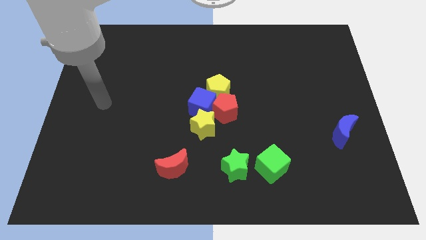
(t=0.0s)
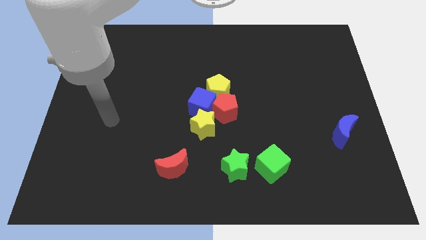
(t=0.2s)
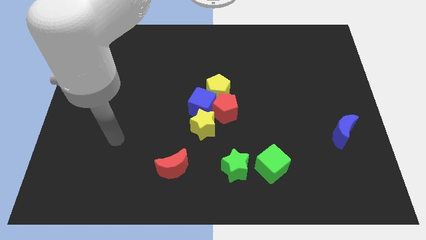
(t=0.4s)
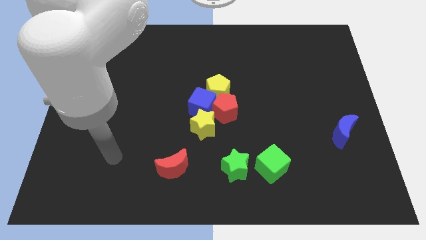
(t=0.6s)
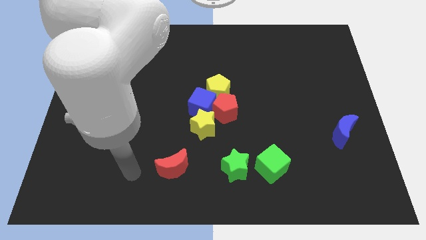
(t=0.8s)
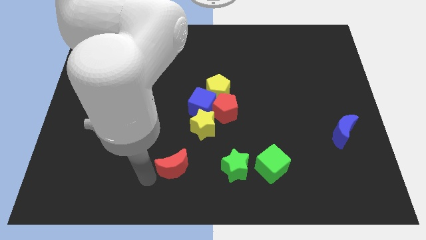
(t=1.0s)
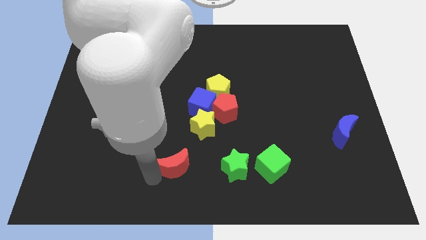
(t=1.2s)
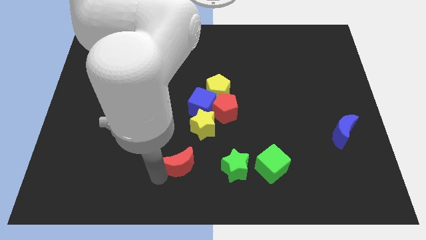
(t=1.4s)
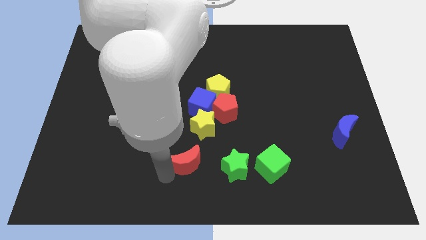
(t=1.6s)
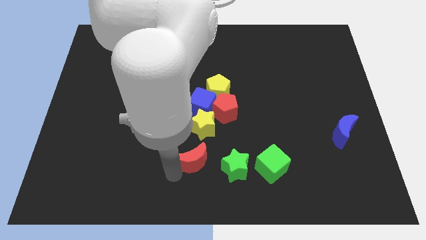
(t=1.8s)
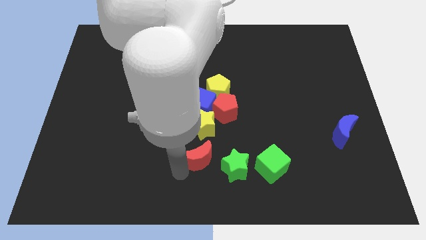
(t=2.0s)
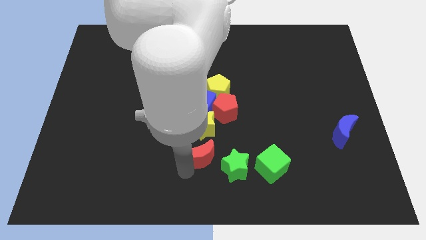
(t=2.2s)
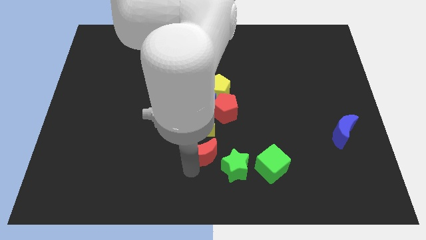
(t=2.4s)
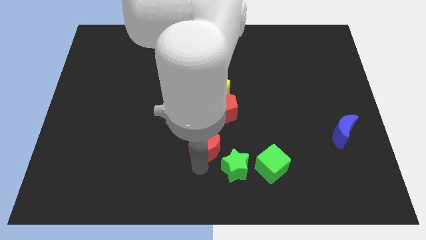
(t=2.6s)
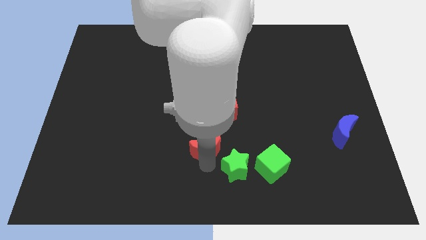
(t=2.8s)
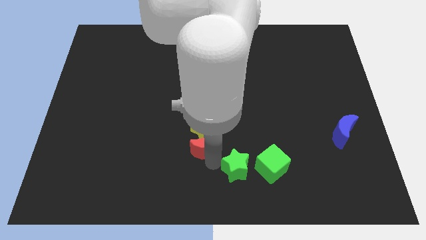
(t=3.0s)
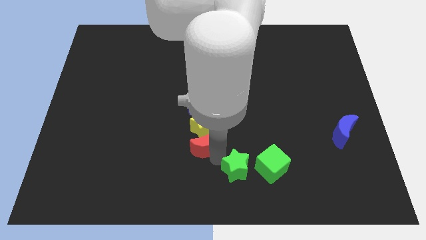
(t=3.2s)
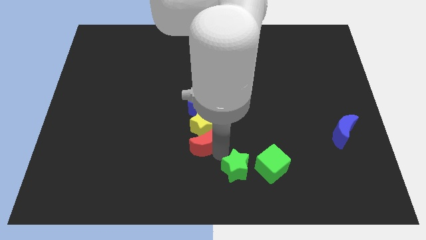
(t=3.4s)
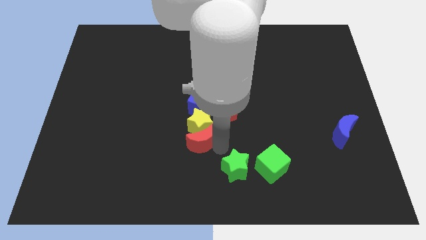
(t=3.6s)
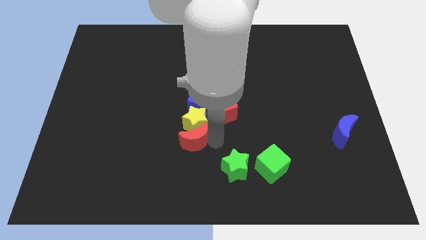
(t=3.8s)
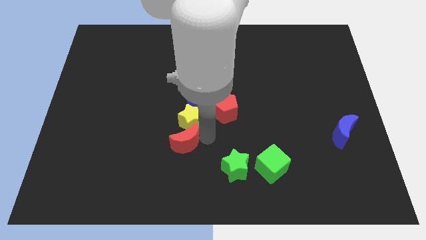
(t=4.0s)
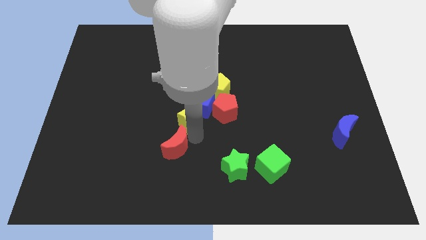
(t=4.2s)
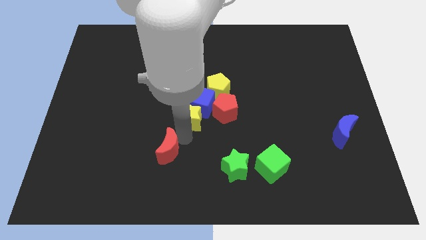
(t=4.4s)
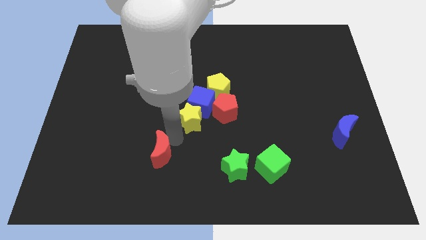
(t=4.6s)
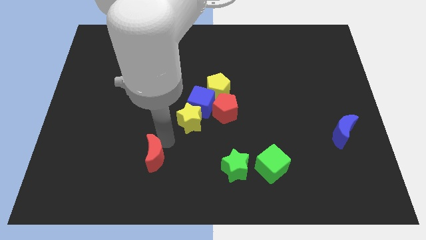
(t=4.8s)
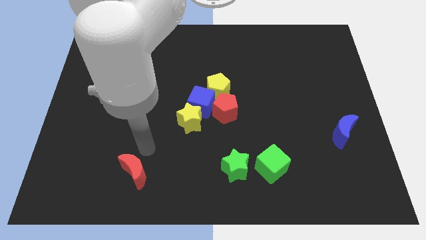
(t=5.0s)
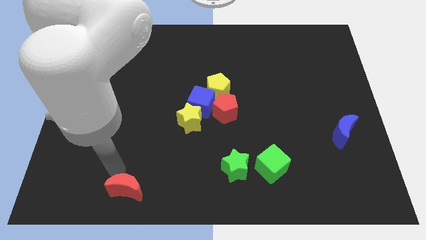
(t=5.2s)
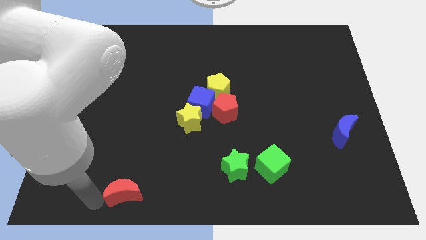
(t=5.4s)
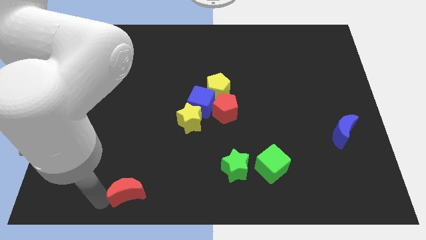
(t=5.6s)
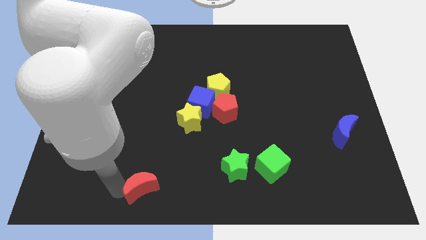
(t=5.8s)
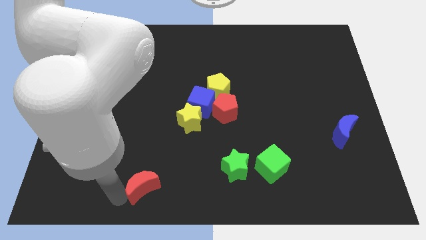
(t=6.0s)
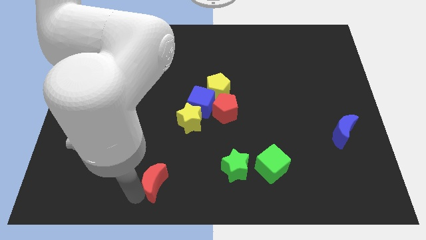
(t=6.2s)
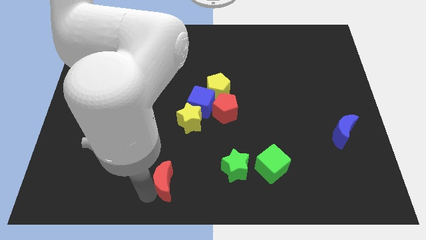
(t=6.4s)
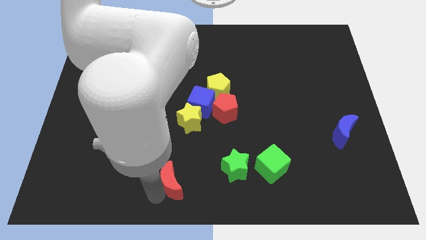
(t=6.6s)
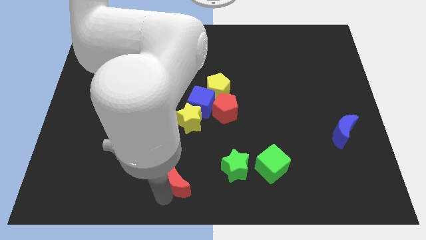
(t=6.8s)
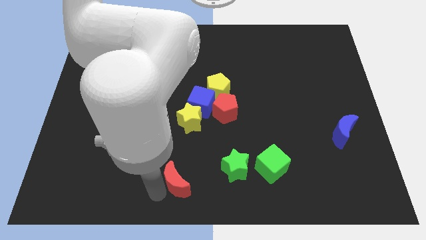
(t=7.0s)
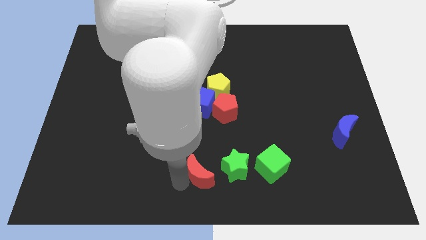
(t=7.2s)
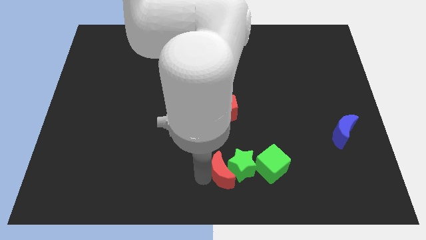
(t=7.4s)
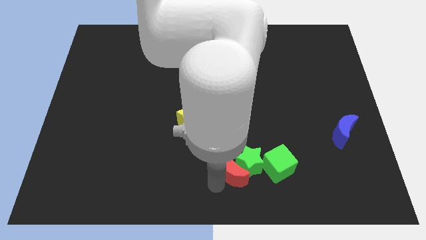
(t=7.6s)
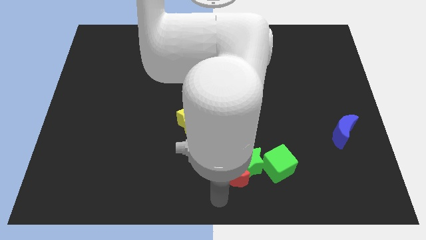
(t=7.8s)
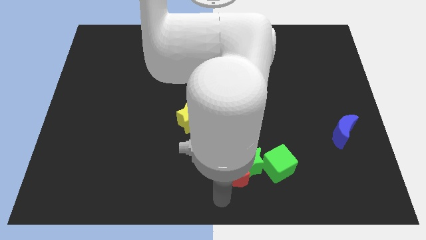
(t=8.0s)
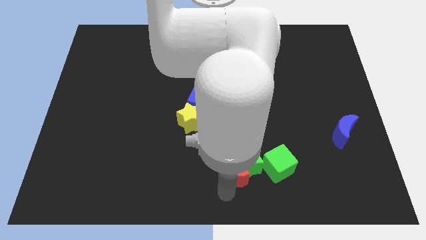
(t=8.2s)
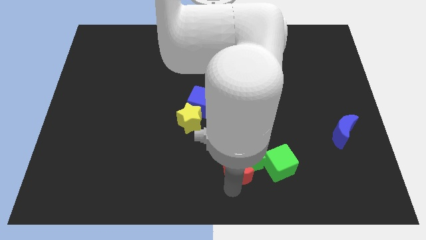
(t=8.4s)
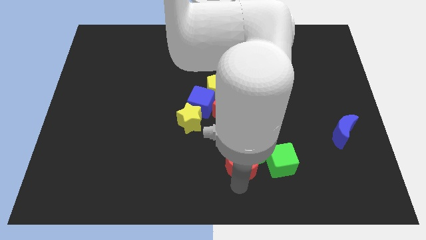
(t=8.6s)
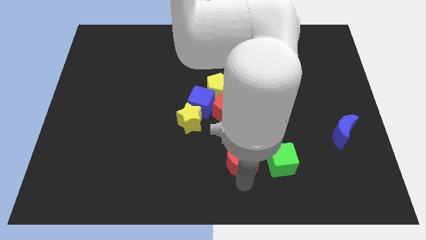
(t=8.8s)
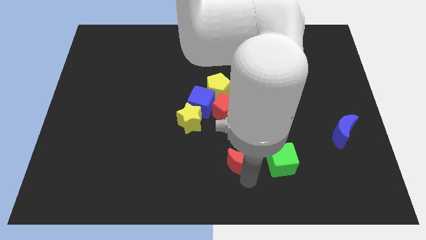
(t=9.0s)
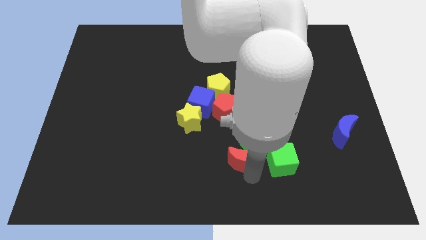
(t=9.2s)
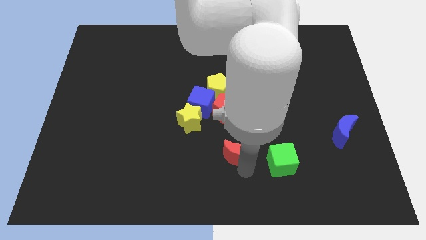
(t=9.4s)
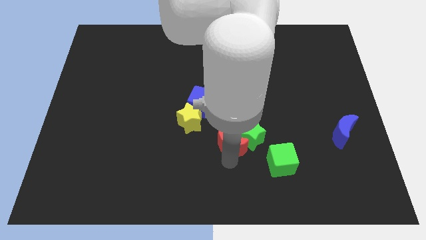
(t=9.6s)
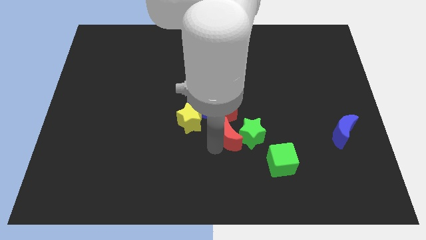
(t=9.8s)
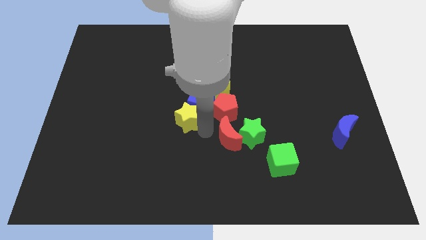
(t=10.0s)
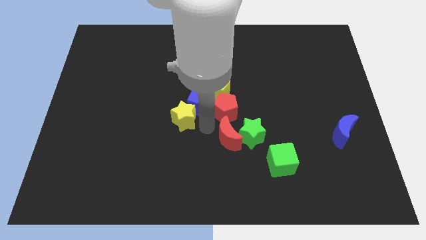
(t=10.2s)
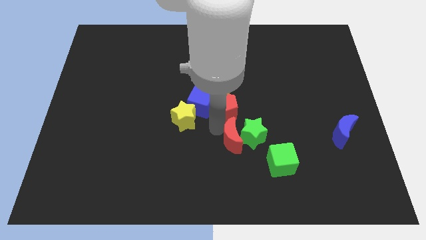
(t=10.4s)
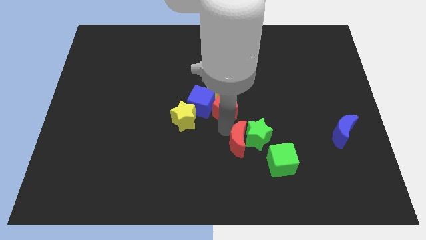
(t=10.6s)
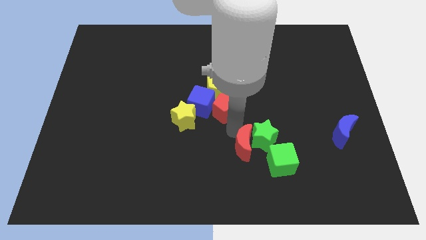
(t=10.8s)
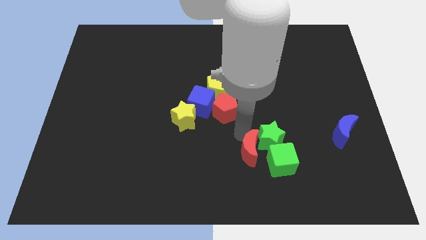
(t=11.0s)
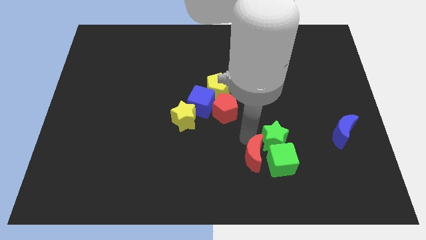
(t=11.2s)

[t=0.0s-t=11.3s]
move the red moon towards the green cube

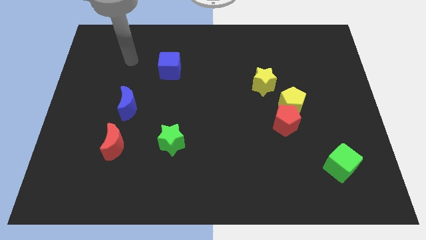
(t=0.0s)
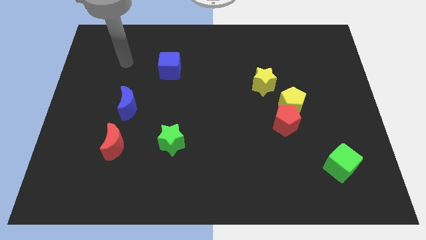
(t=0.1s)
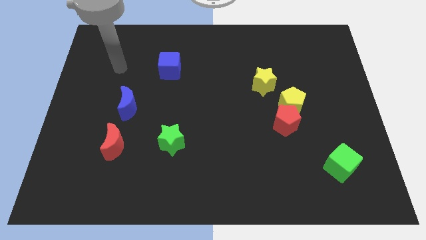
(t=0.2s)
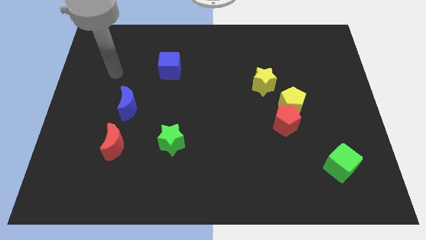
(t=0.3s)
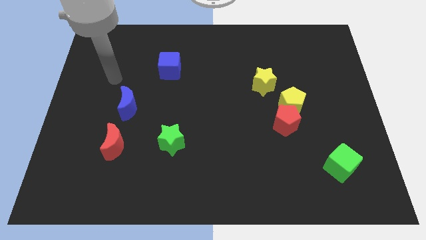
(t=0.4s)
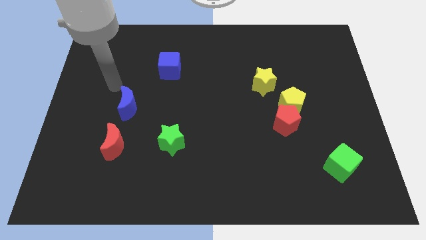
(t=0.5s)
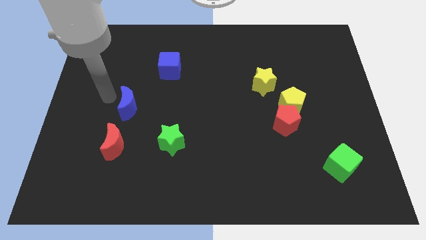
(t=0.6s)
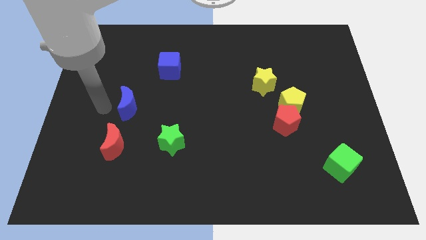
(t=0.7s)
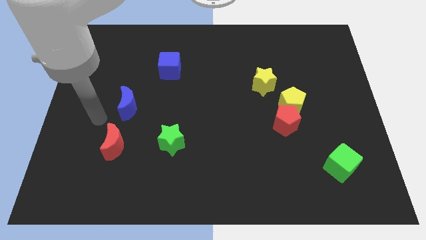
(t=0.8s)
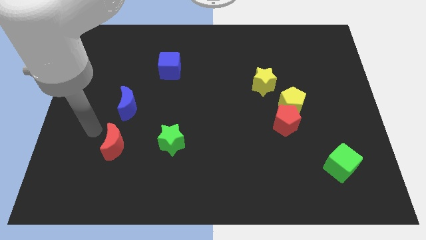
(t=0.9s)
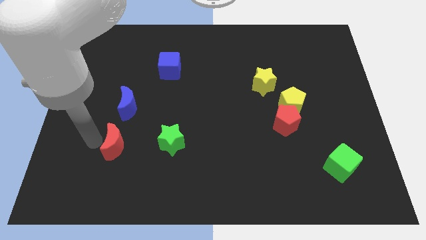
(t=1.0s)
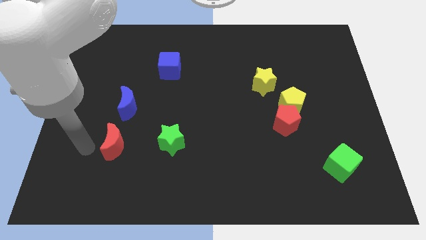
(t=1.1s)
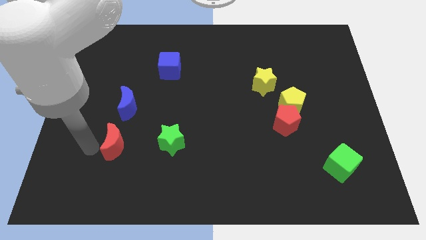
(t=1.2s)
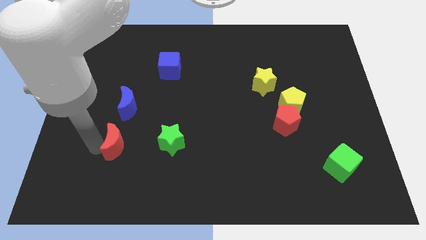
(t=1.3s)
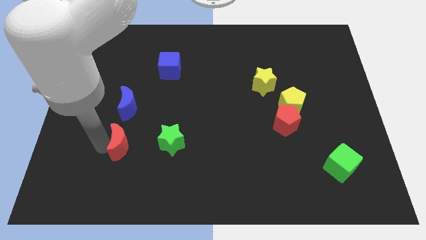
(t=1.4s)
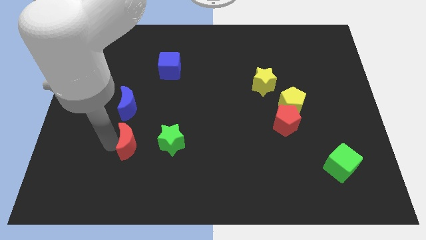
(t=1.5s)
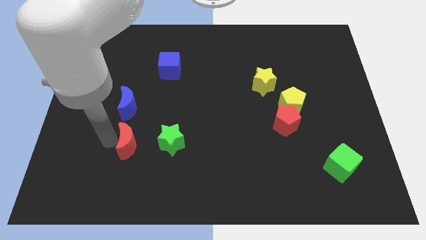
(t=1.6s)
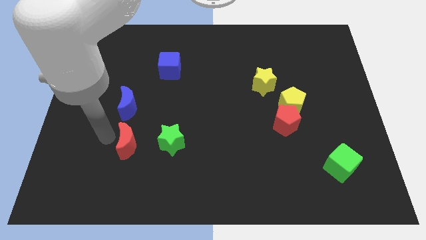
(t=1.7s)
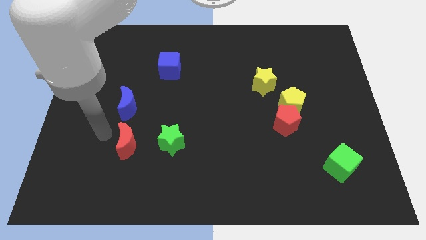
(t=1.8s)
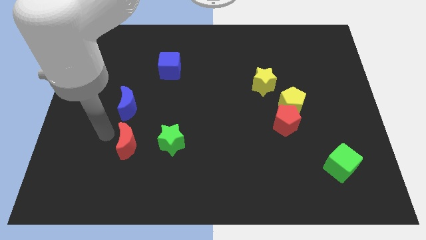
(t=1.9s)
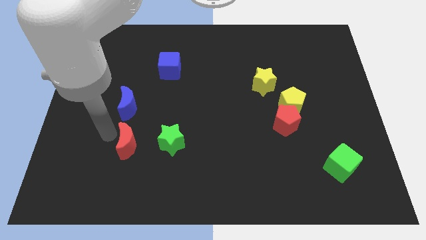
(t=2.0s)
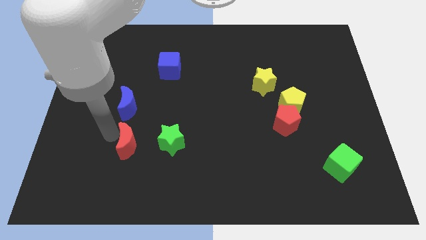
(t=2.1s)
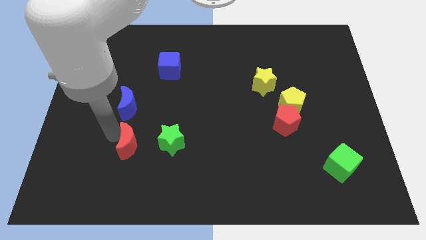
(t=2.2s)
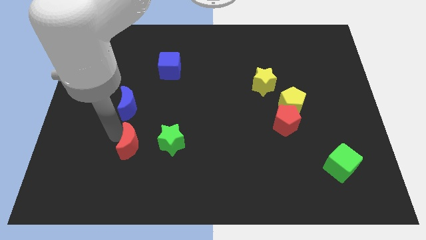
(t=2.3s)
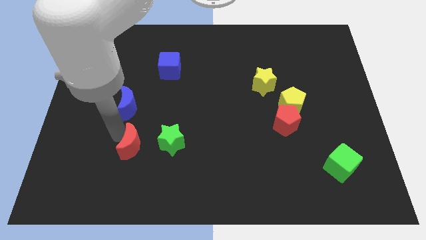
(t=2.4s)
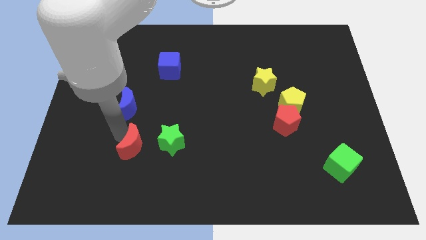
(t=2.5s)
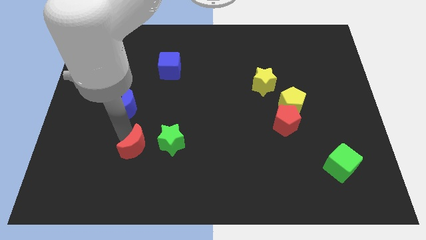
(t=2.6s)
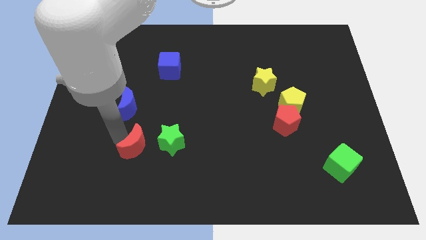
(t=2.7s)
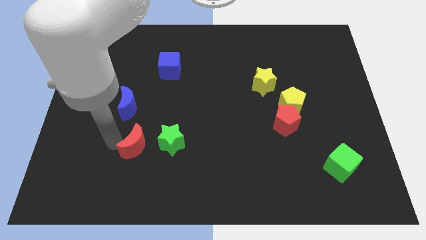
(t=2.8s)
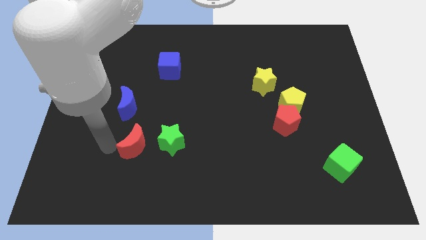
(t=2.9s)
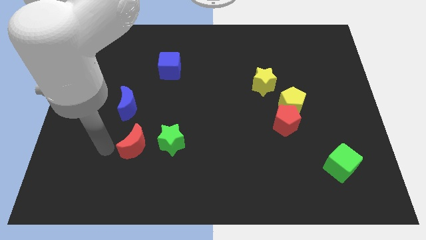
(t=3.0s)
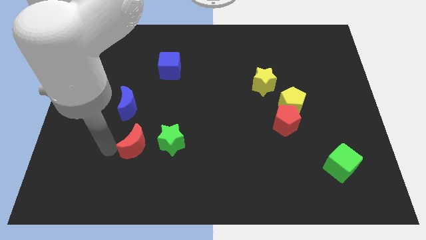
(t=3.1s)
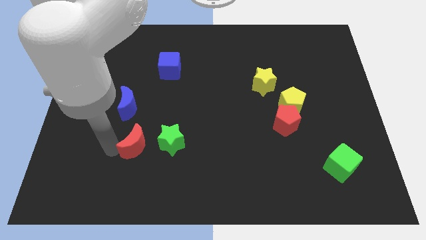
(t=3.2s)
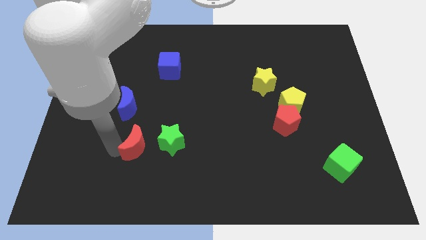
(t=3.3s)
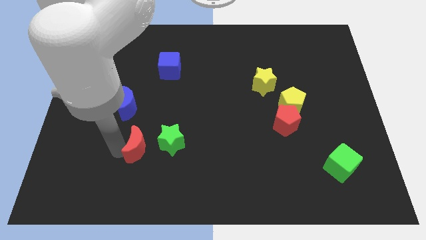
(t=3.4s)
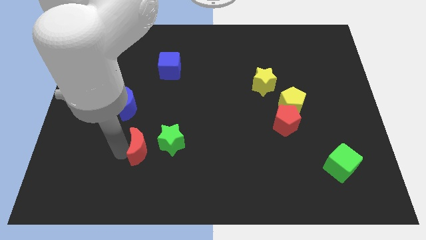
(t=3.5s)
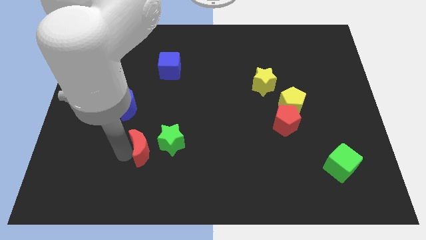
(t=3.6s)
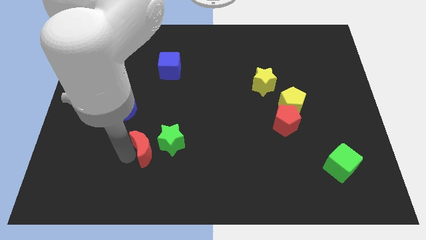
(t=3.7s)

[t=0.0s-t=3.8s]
push the red moon close to the green star
